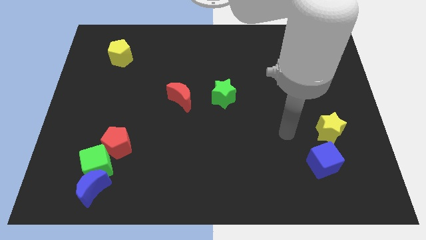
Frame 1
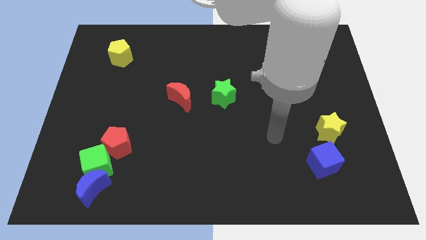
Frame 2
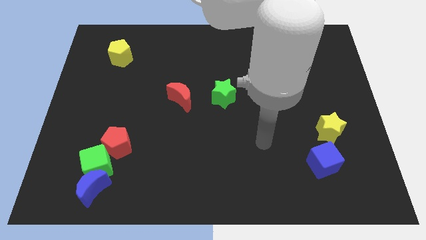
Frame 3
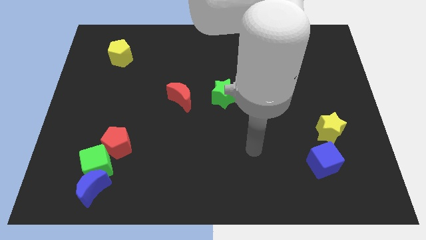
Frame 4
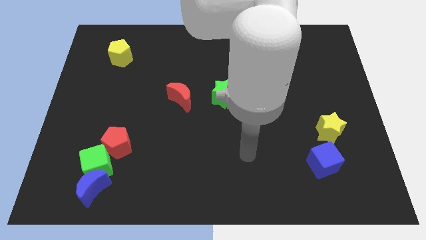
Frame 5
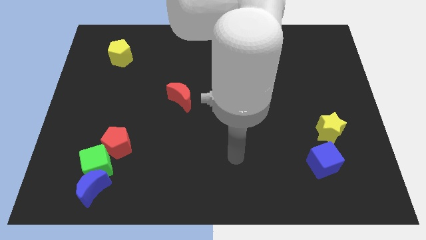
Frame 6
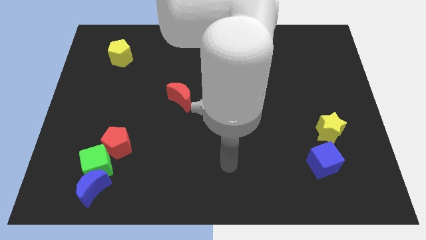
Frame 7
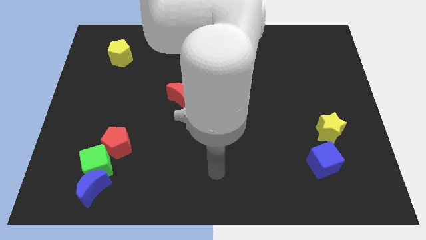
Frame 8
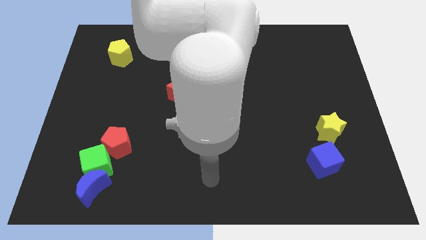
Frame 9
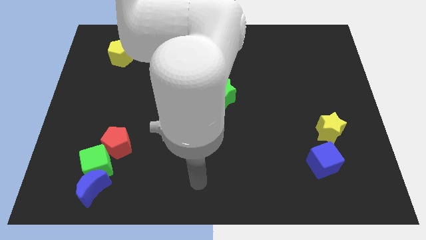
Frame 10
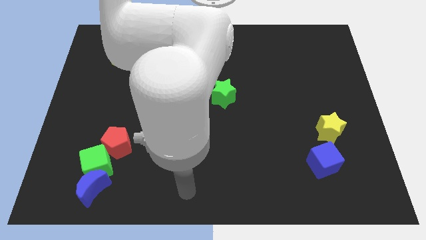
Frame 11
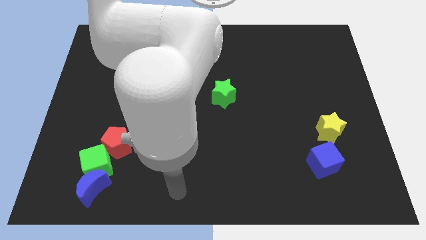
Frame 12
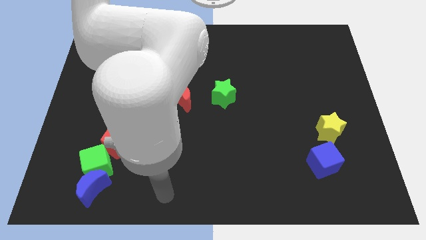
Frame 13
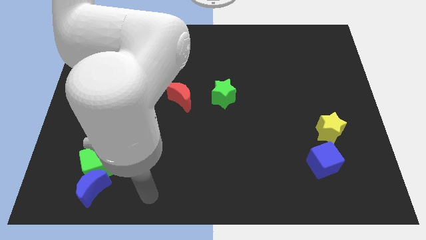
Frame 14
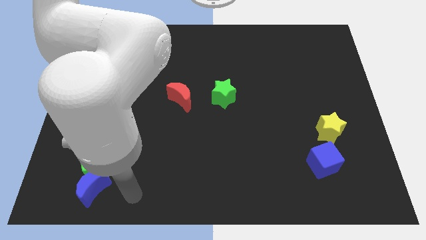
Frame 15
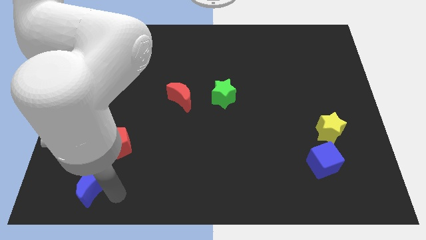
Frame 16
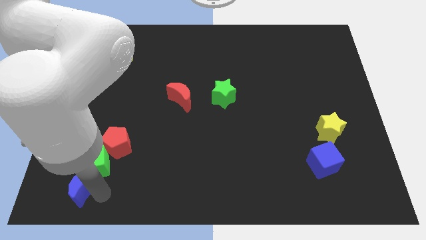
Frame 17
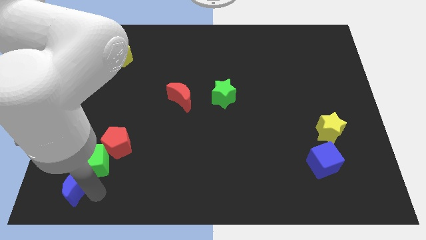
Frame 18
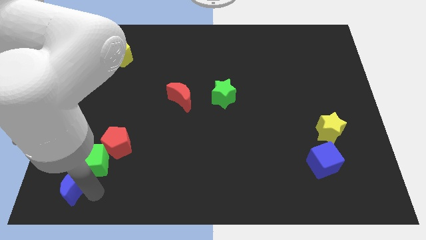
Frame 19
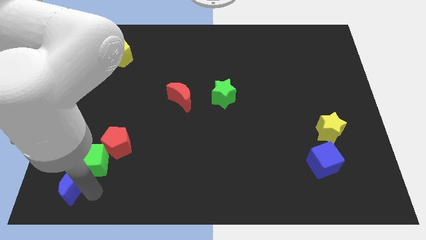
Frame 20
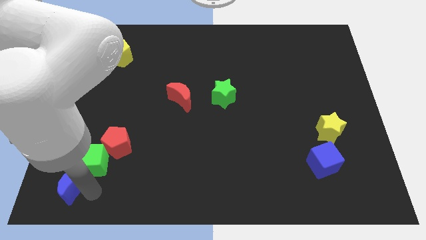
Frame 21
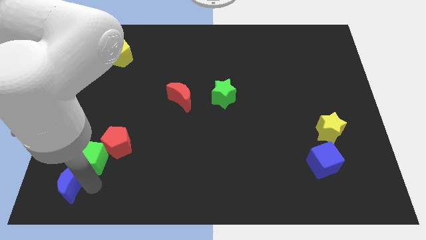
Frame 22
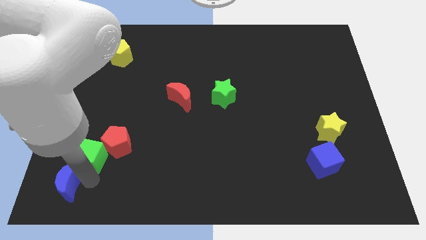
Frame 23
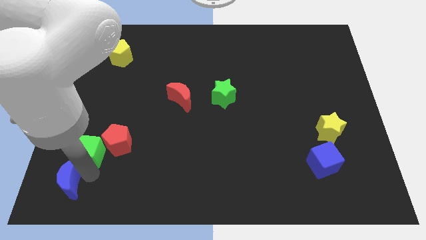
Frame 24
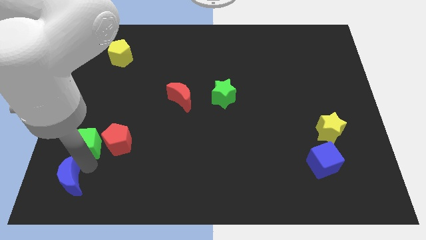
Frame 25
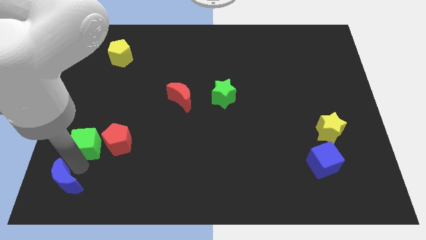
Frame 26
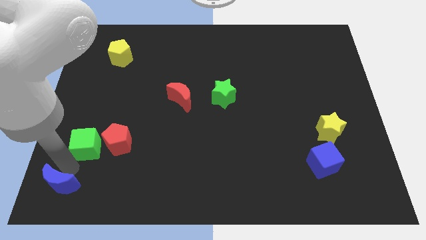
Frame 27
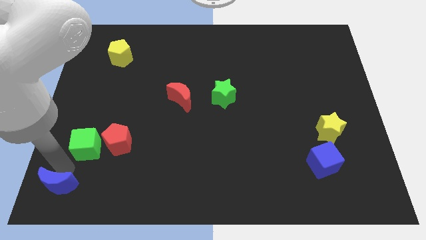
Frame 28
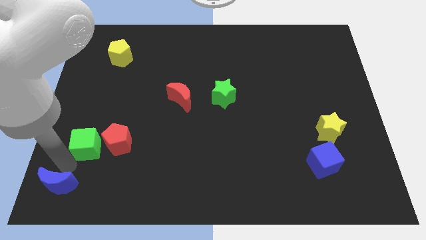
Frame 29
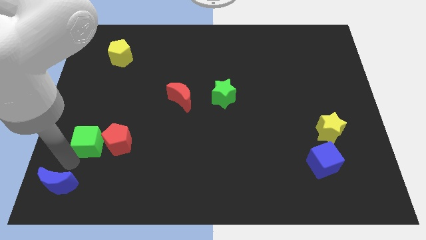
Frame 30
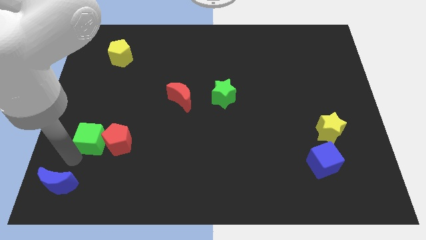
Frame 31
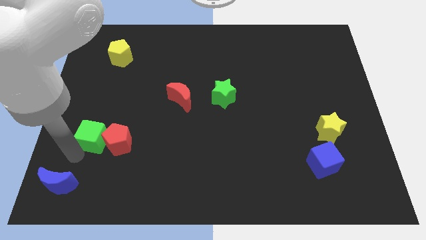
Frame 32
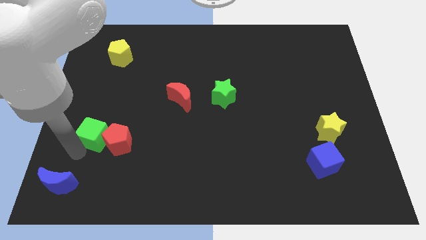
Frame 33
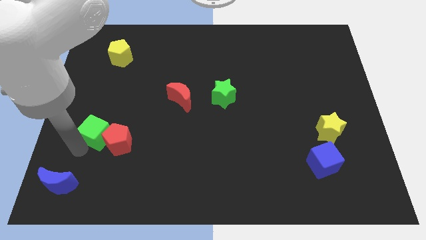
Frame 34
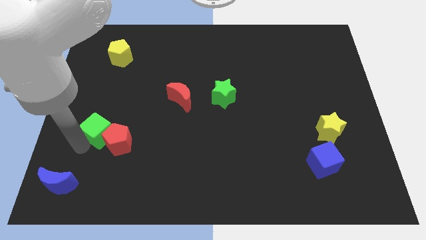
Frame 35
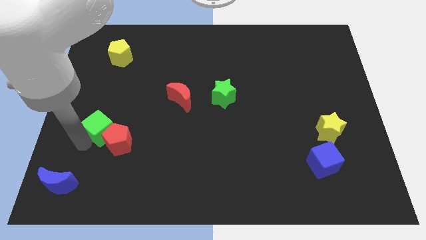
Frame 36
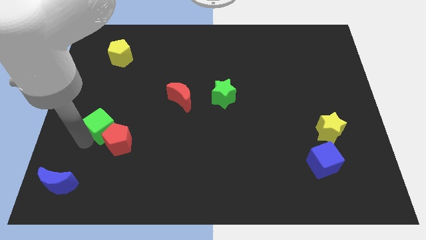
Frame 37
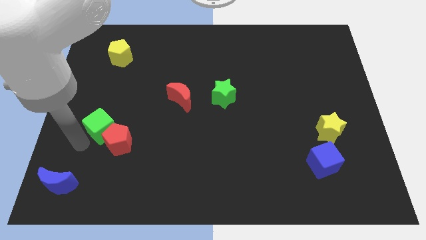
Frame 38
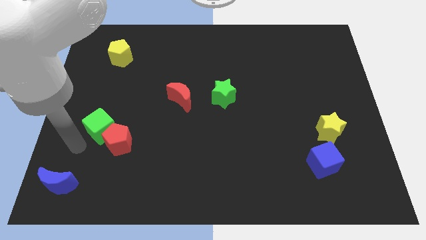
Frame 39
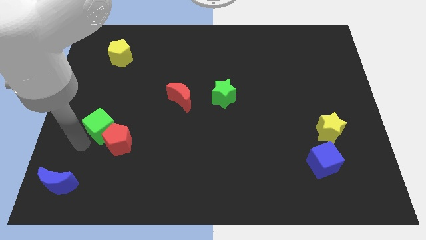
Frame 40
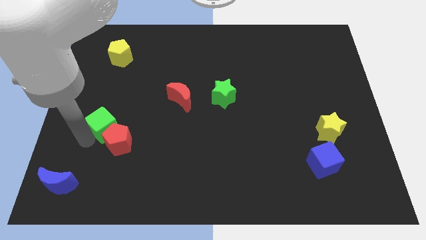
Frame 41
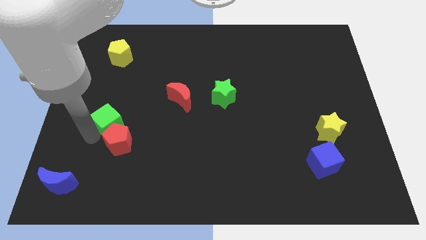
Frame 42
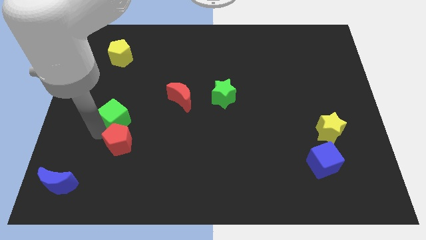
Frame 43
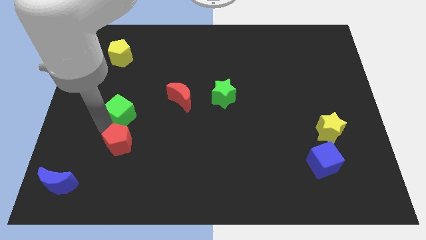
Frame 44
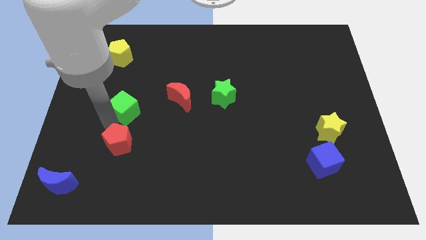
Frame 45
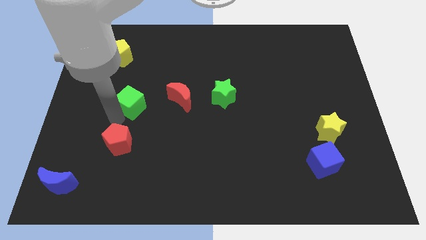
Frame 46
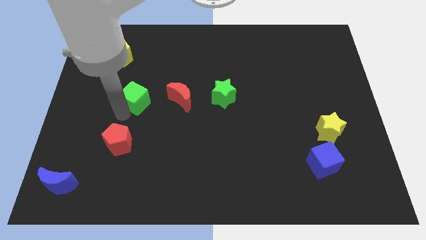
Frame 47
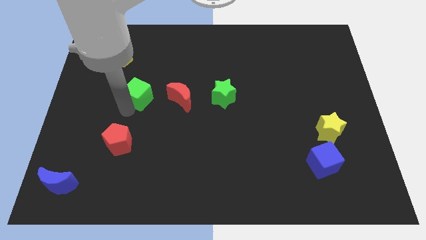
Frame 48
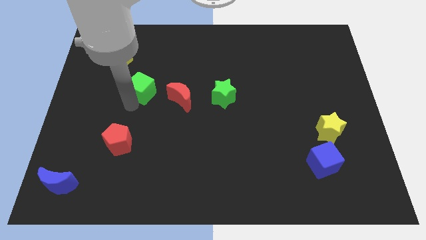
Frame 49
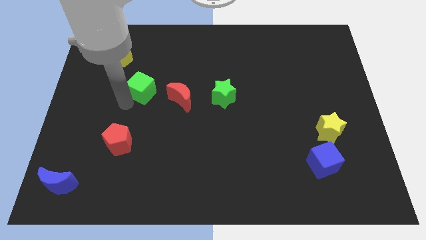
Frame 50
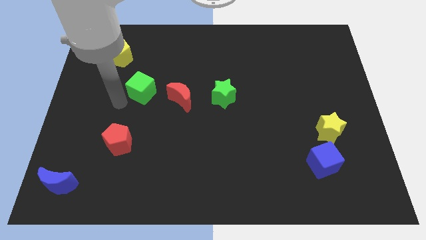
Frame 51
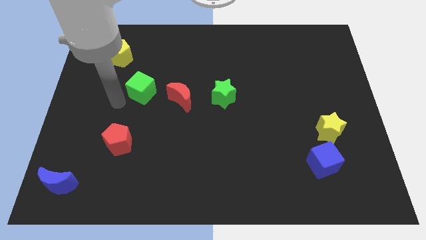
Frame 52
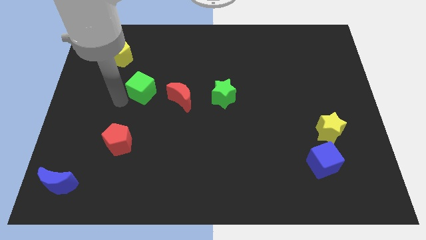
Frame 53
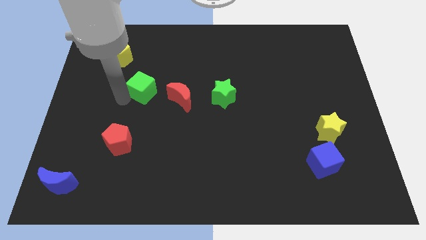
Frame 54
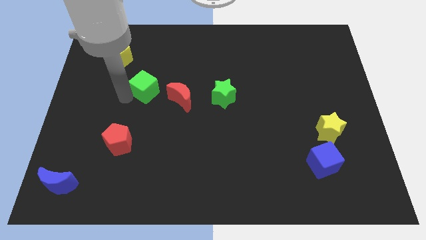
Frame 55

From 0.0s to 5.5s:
push the green cube to the top left side of the red moon

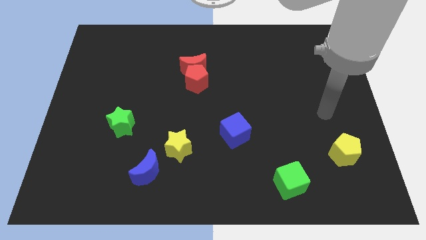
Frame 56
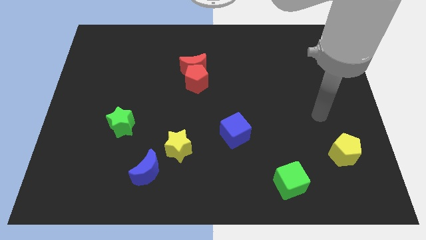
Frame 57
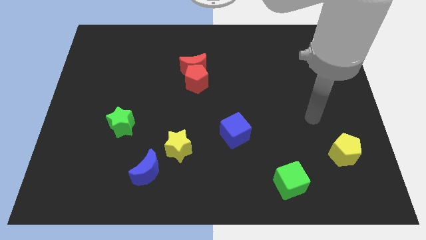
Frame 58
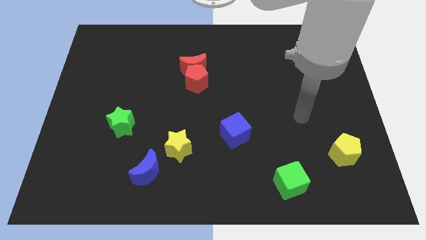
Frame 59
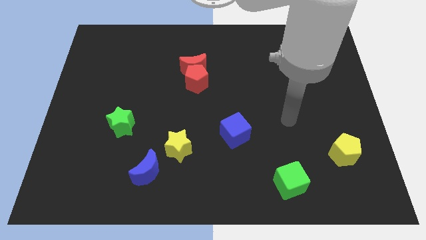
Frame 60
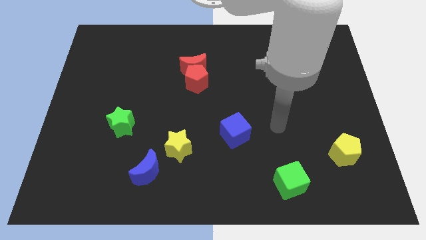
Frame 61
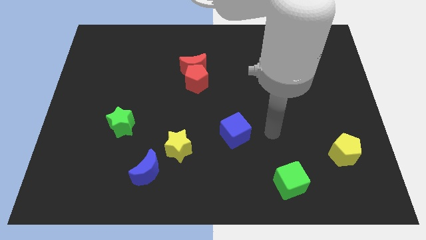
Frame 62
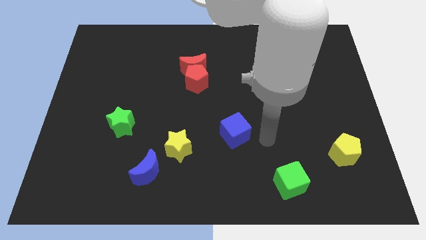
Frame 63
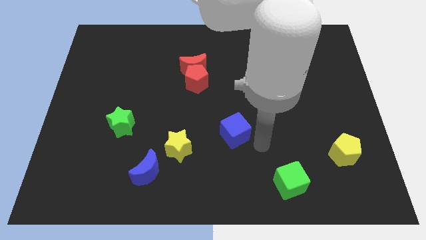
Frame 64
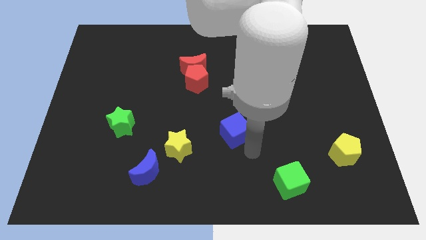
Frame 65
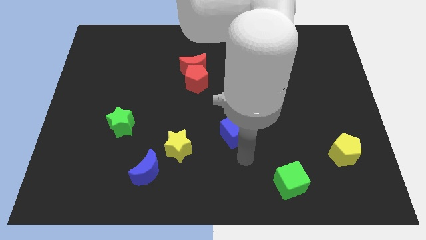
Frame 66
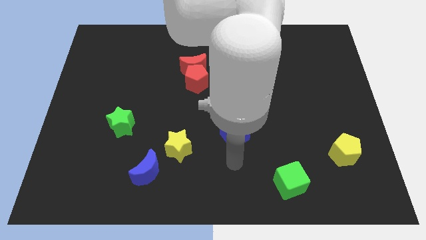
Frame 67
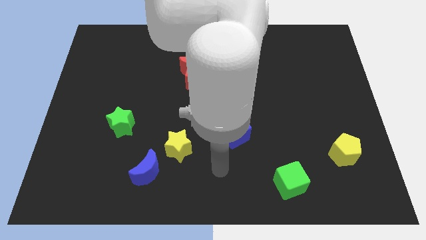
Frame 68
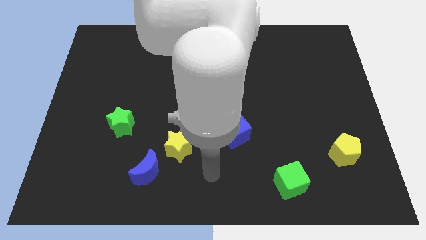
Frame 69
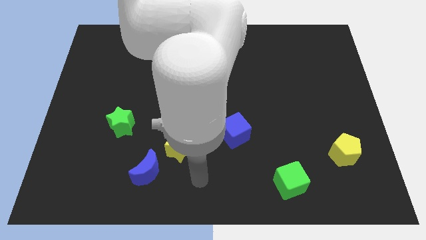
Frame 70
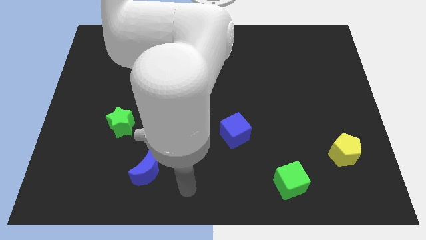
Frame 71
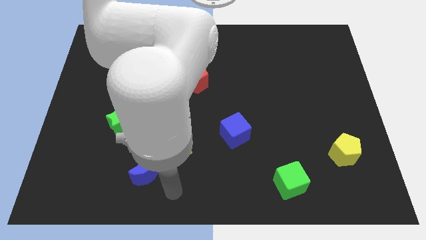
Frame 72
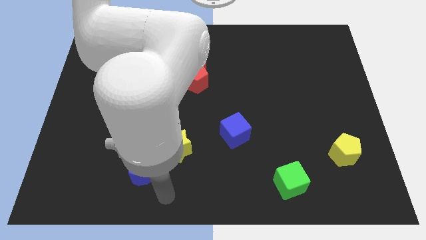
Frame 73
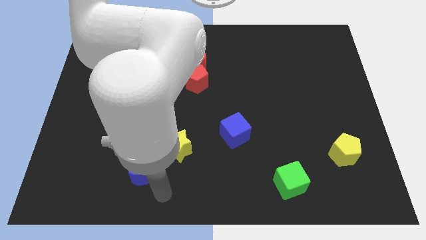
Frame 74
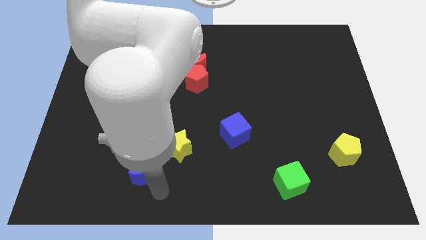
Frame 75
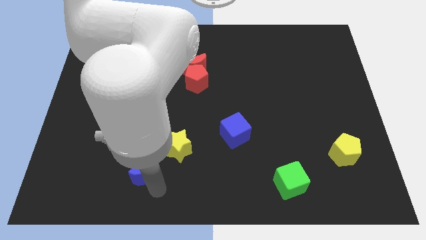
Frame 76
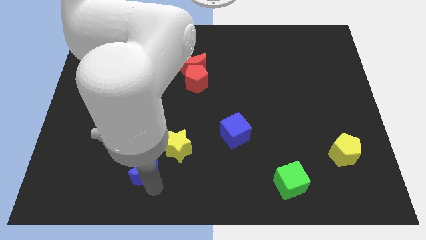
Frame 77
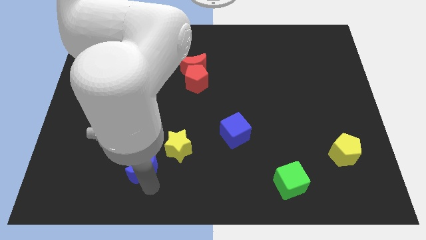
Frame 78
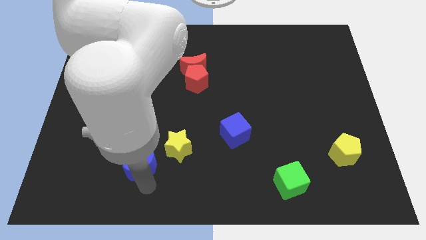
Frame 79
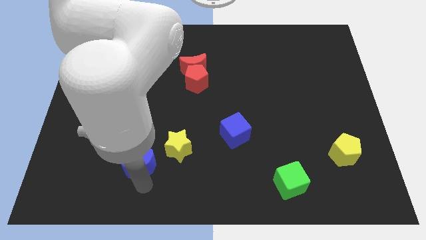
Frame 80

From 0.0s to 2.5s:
move the blue moon left of the yellow star
